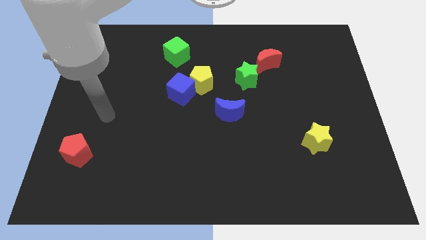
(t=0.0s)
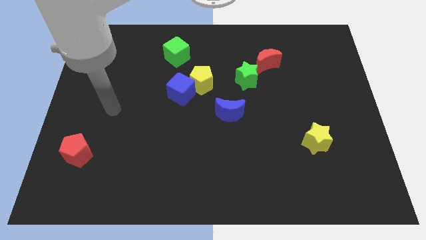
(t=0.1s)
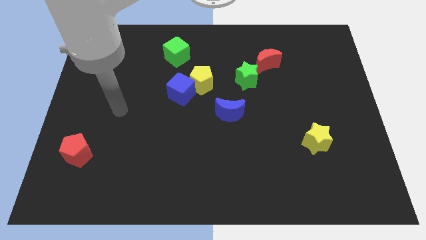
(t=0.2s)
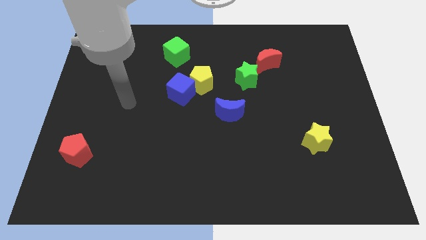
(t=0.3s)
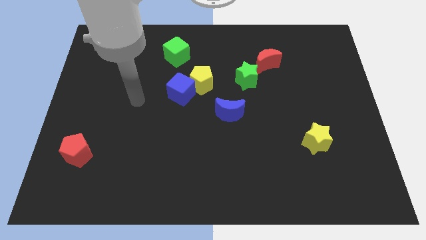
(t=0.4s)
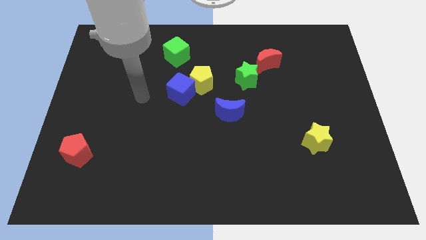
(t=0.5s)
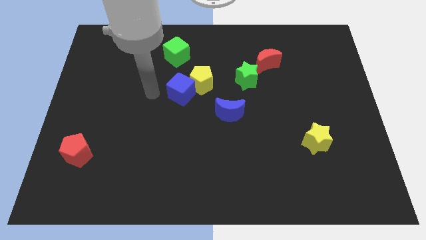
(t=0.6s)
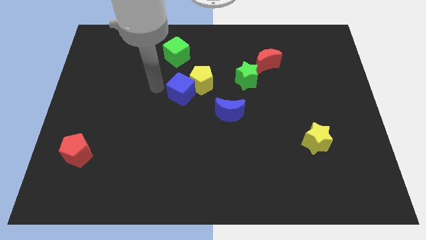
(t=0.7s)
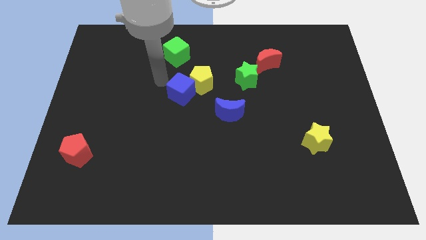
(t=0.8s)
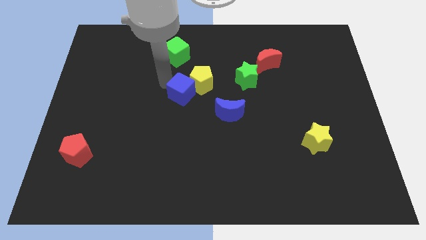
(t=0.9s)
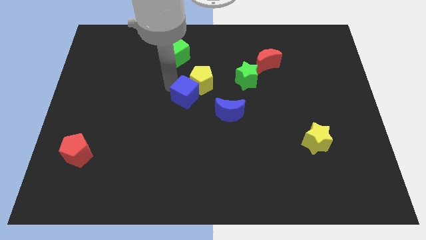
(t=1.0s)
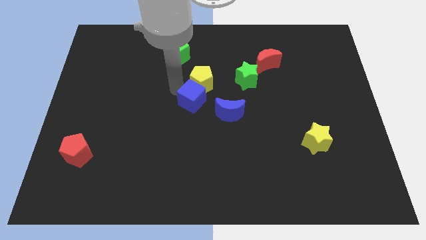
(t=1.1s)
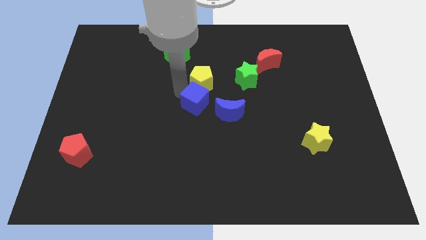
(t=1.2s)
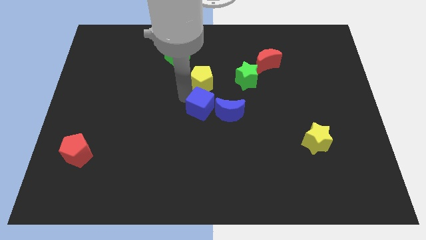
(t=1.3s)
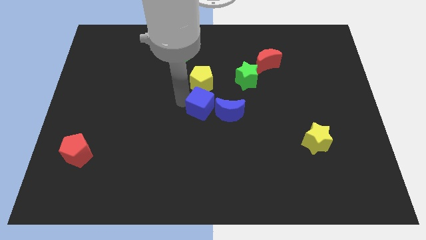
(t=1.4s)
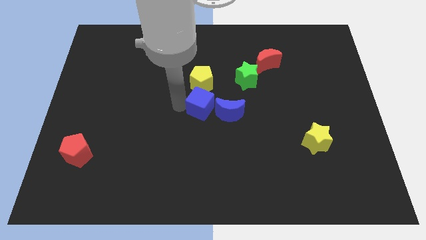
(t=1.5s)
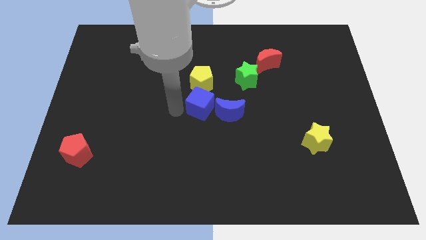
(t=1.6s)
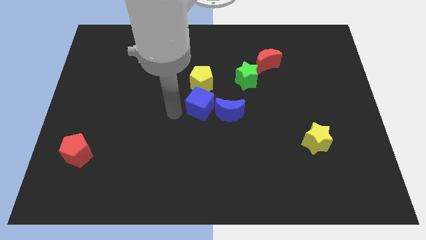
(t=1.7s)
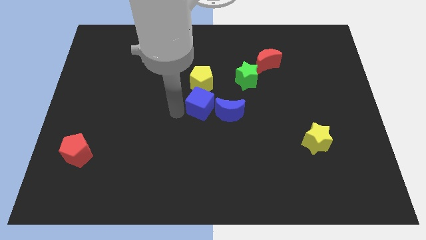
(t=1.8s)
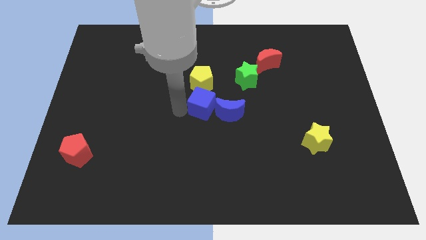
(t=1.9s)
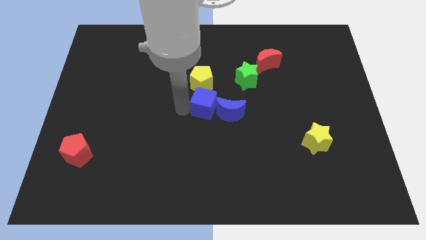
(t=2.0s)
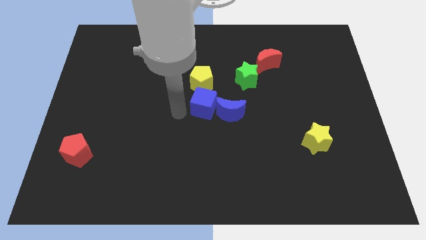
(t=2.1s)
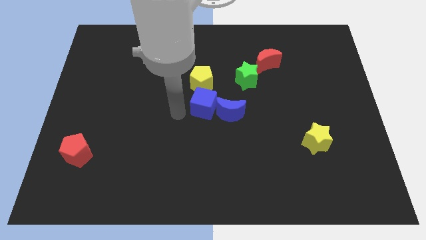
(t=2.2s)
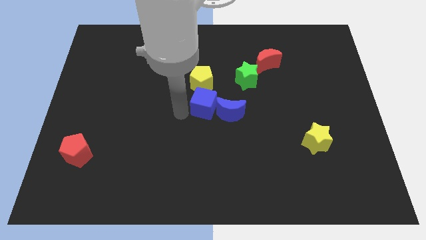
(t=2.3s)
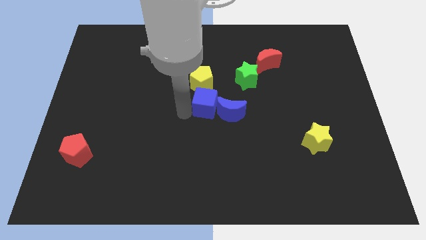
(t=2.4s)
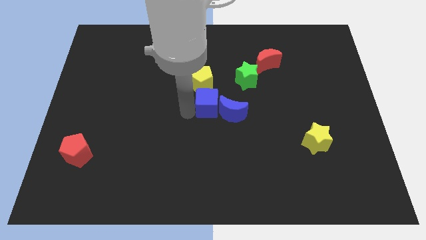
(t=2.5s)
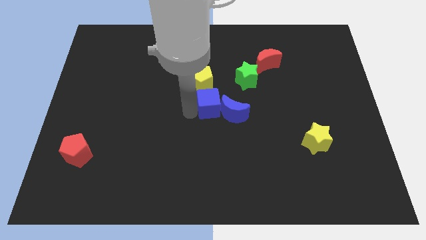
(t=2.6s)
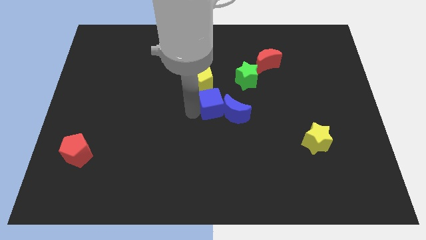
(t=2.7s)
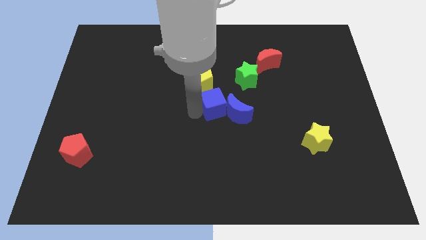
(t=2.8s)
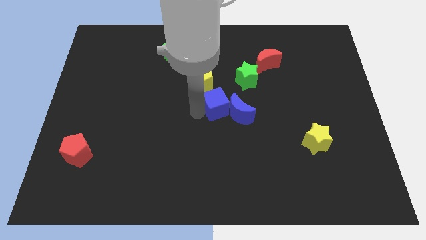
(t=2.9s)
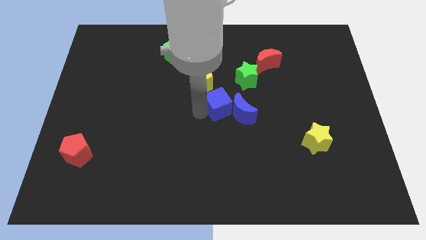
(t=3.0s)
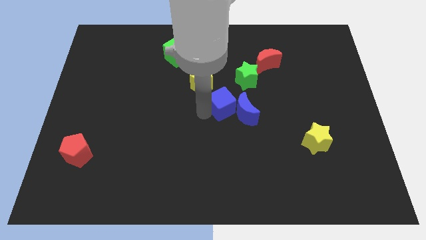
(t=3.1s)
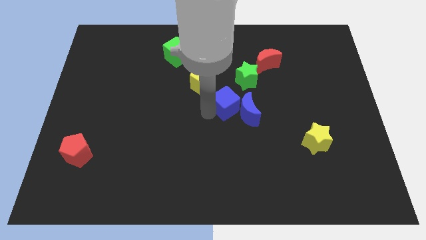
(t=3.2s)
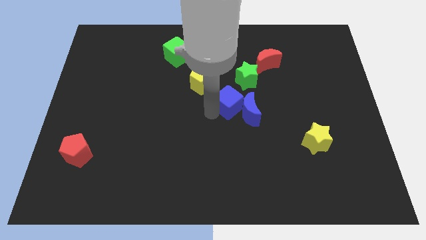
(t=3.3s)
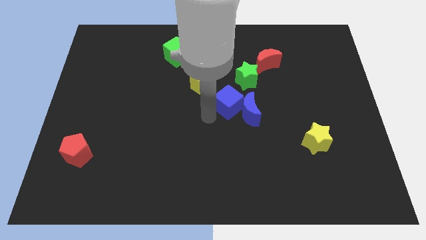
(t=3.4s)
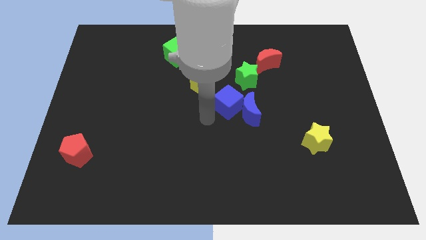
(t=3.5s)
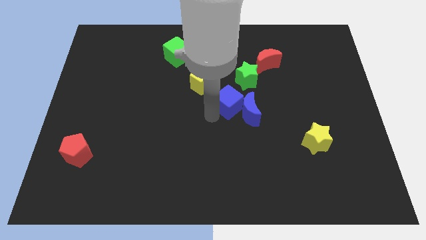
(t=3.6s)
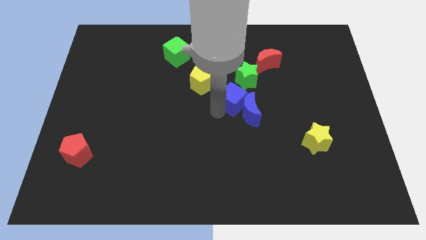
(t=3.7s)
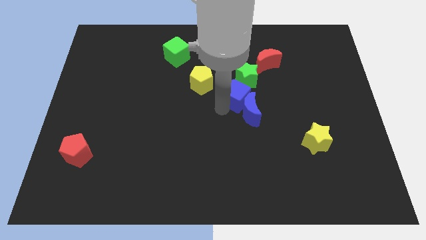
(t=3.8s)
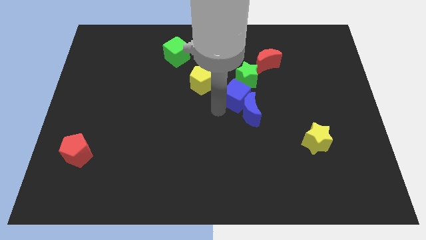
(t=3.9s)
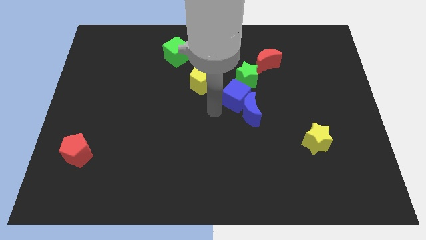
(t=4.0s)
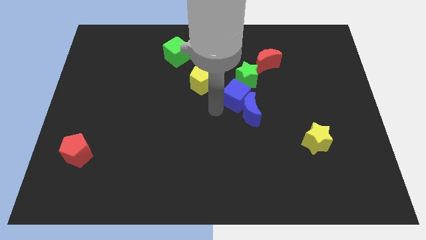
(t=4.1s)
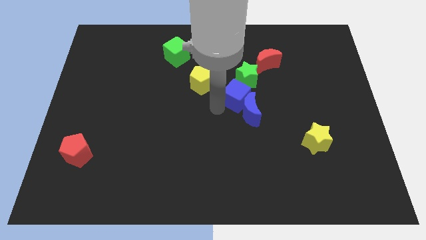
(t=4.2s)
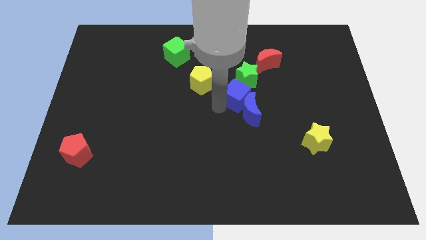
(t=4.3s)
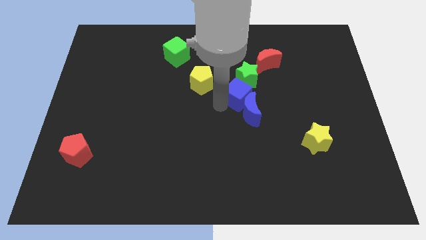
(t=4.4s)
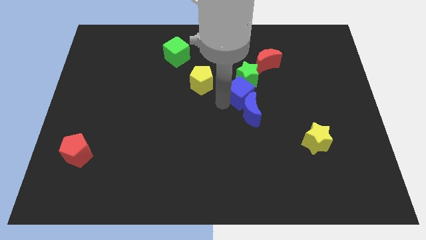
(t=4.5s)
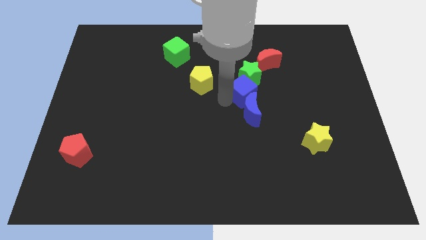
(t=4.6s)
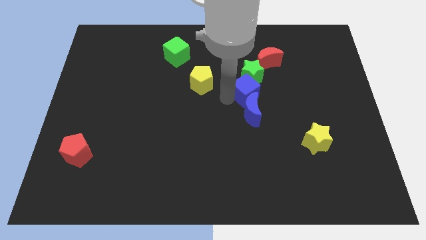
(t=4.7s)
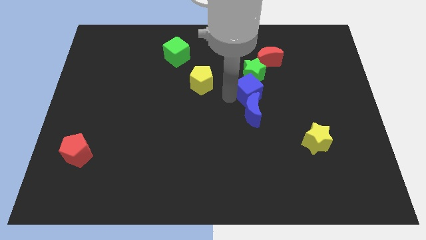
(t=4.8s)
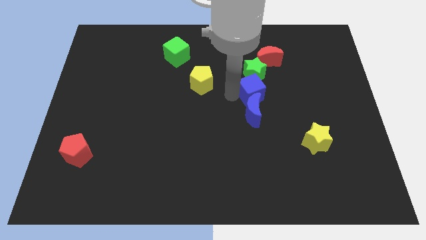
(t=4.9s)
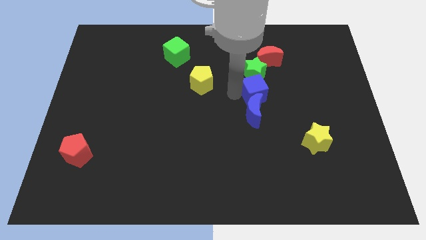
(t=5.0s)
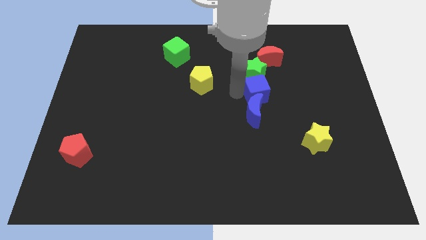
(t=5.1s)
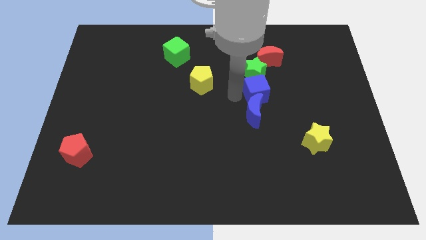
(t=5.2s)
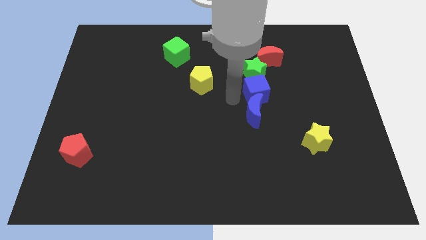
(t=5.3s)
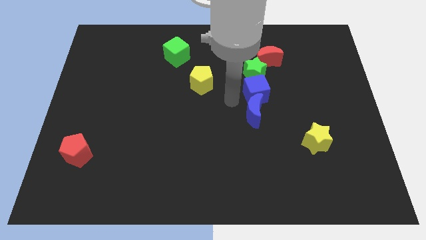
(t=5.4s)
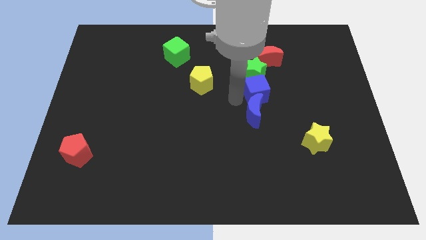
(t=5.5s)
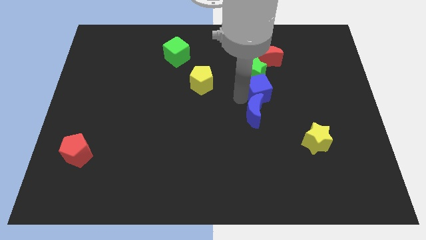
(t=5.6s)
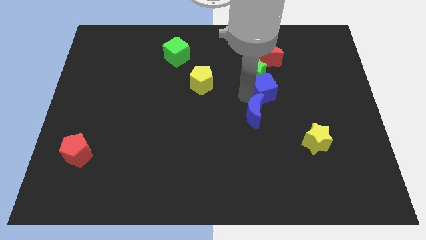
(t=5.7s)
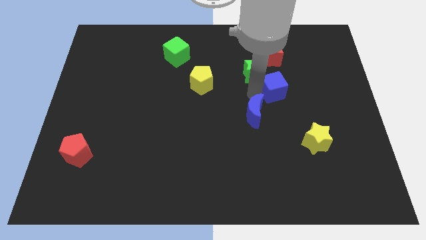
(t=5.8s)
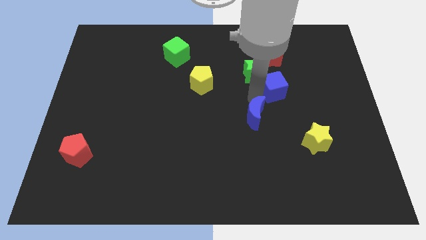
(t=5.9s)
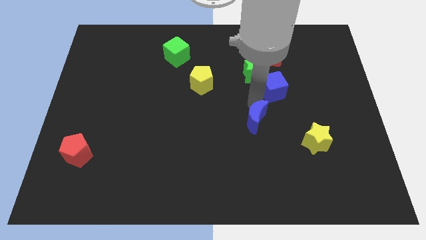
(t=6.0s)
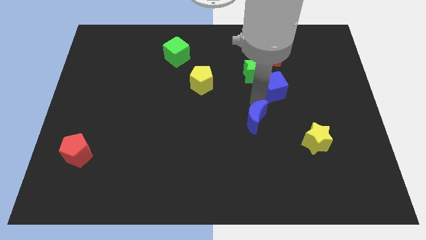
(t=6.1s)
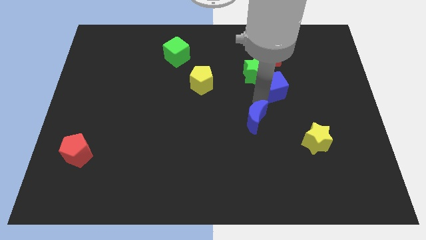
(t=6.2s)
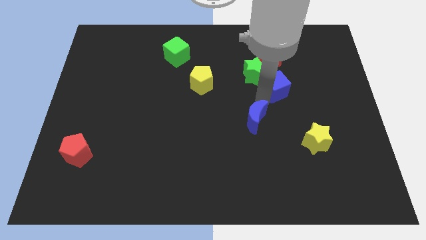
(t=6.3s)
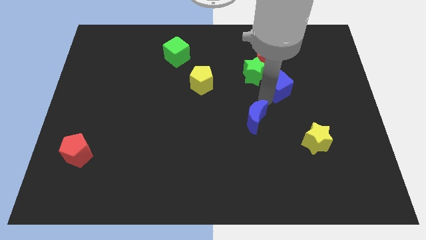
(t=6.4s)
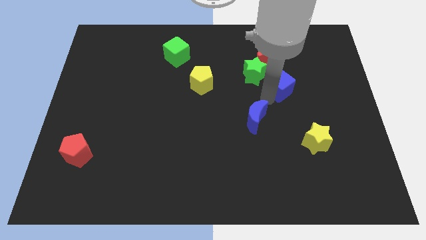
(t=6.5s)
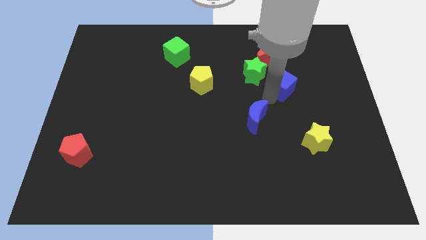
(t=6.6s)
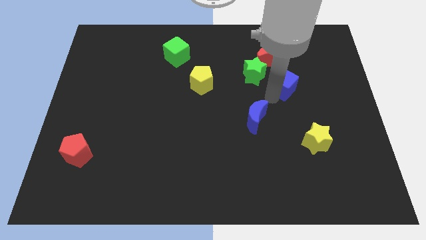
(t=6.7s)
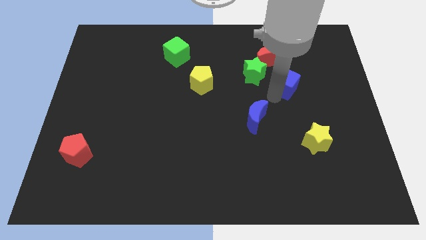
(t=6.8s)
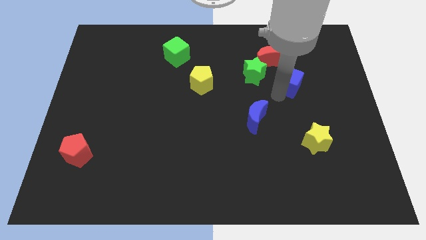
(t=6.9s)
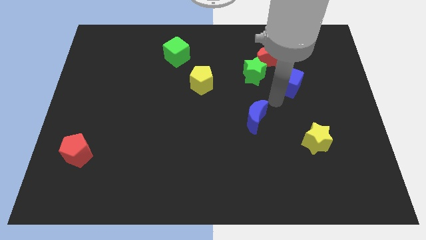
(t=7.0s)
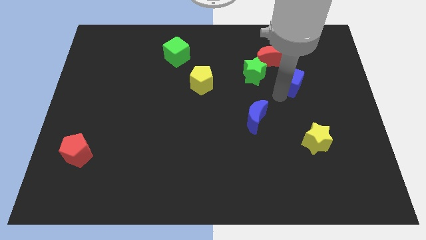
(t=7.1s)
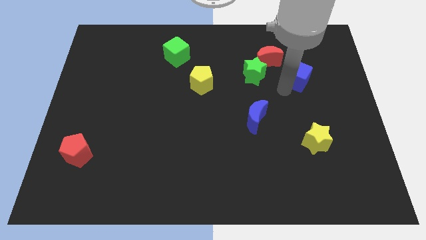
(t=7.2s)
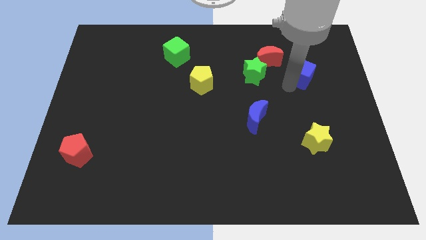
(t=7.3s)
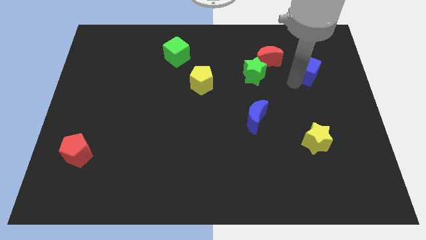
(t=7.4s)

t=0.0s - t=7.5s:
slide the blue cube just right of the red moon
